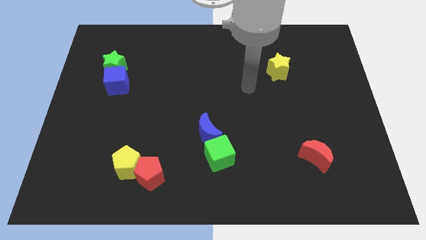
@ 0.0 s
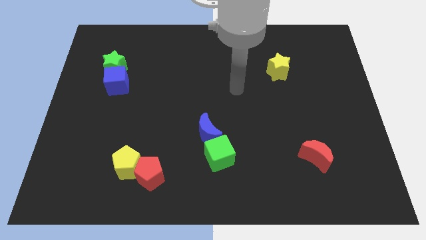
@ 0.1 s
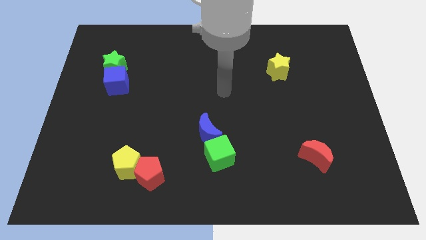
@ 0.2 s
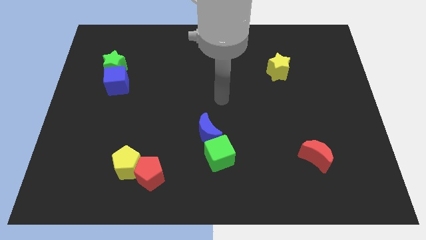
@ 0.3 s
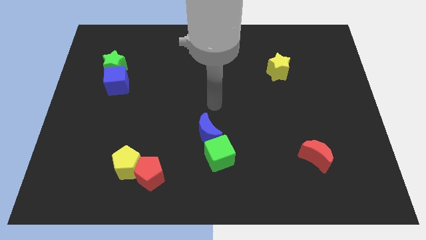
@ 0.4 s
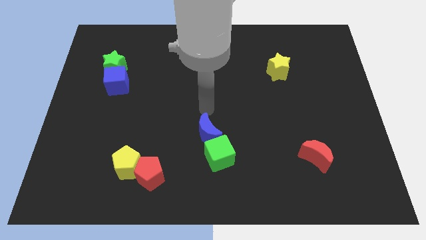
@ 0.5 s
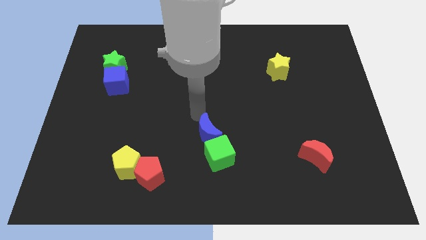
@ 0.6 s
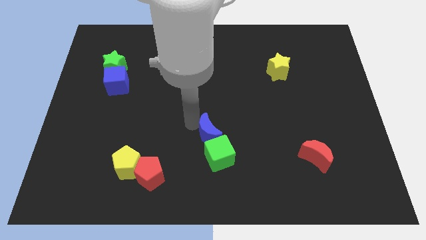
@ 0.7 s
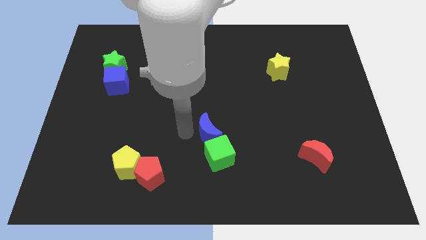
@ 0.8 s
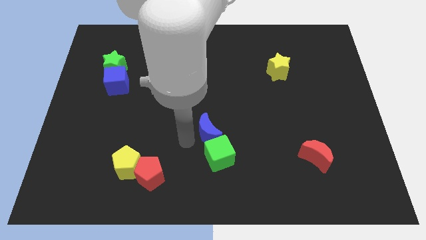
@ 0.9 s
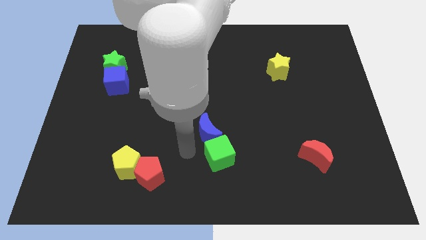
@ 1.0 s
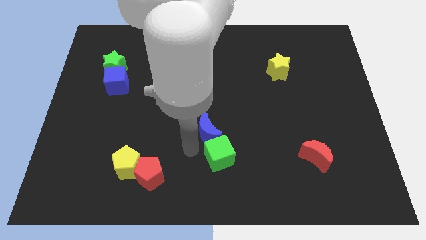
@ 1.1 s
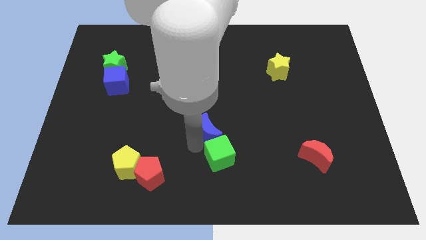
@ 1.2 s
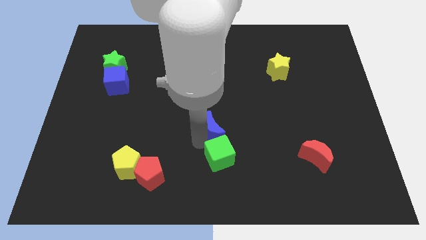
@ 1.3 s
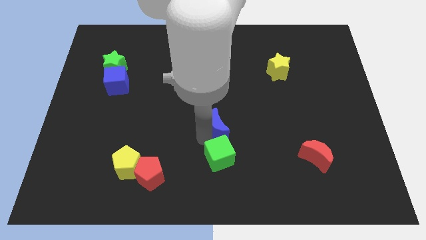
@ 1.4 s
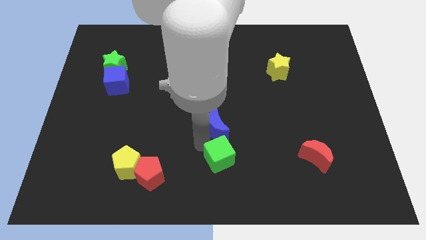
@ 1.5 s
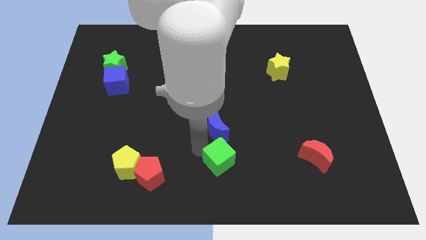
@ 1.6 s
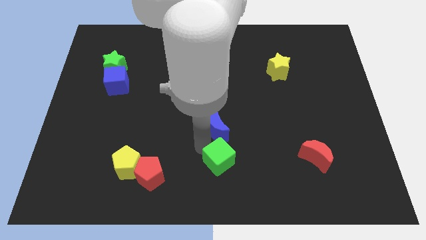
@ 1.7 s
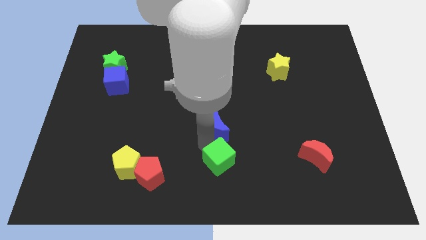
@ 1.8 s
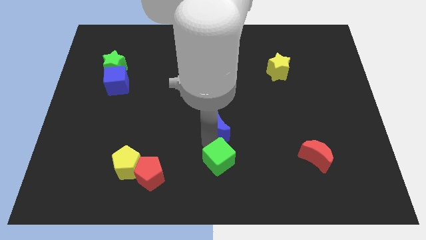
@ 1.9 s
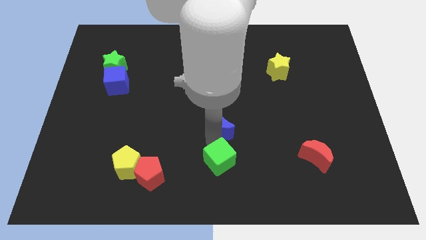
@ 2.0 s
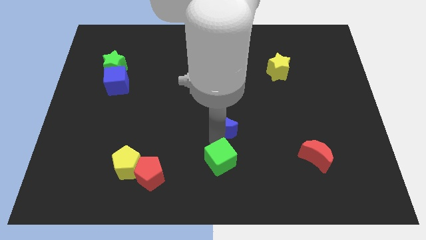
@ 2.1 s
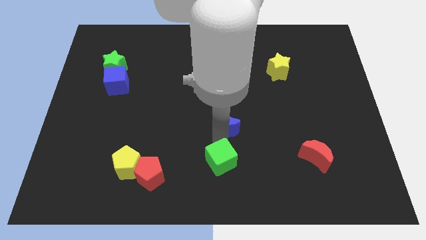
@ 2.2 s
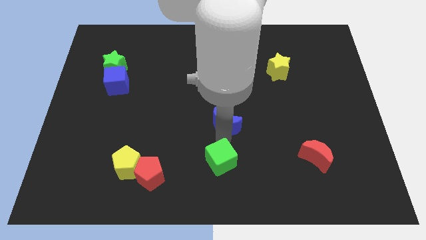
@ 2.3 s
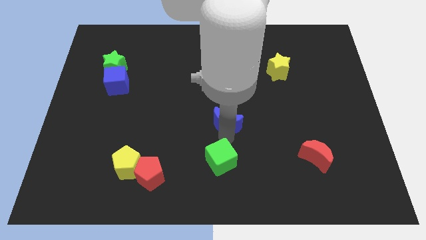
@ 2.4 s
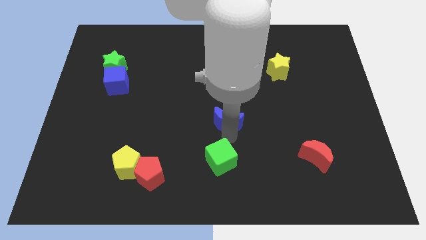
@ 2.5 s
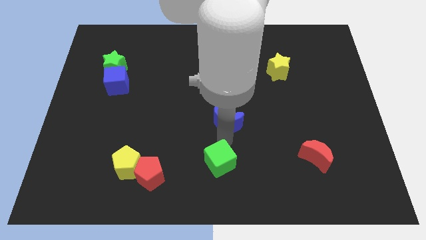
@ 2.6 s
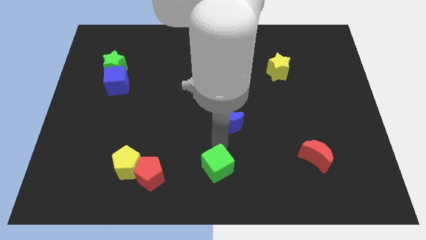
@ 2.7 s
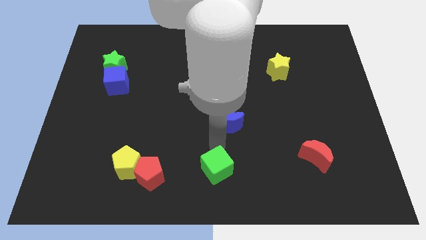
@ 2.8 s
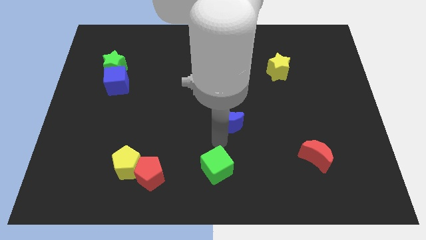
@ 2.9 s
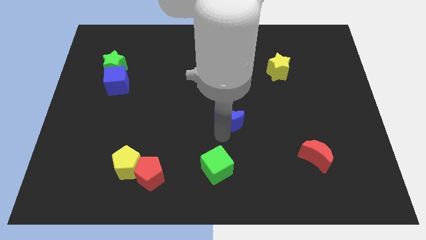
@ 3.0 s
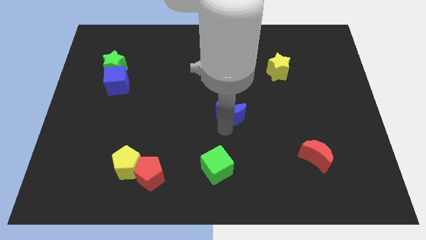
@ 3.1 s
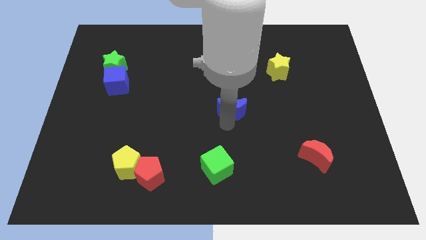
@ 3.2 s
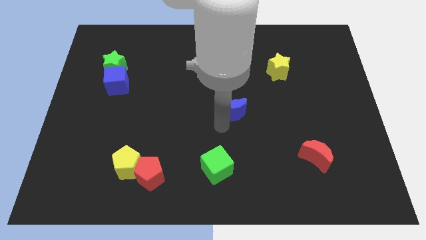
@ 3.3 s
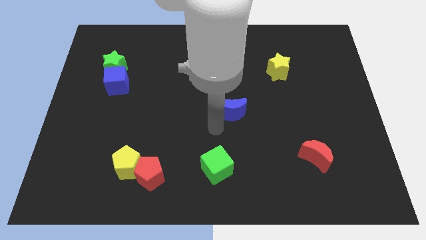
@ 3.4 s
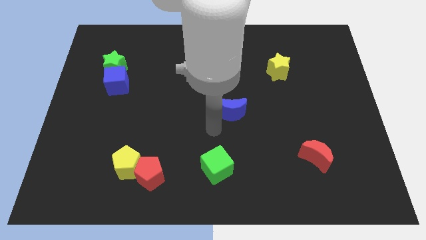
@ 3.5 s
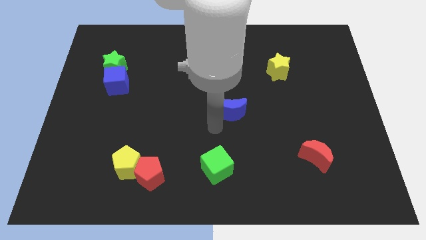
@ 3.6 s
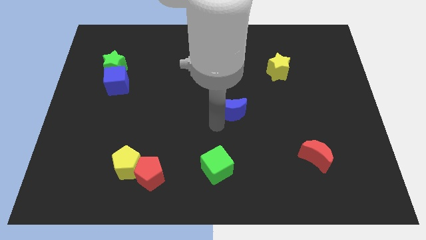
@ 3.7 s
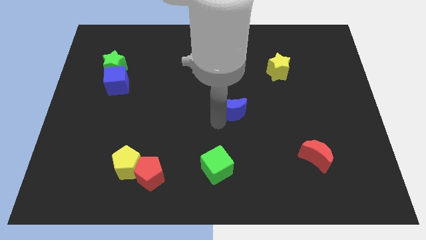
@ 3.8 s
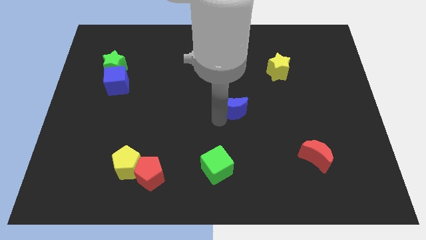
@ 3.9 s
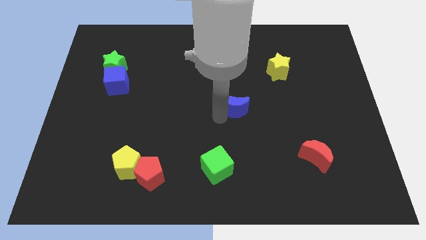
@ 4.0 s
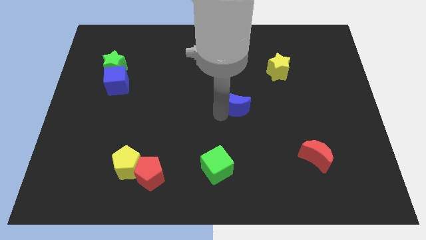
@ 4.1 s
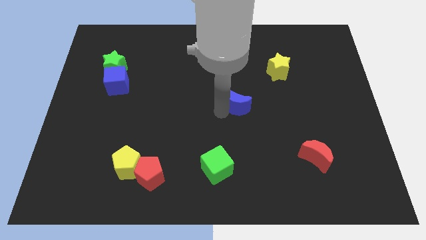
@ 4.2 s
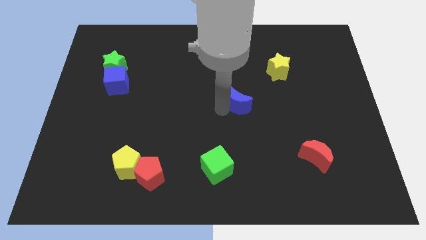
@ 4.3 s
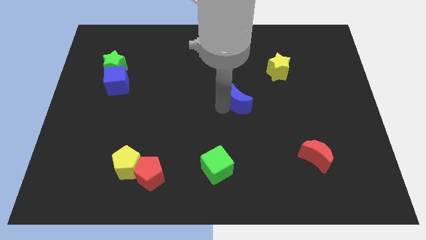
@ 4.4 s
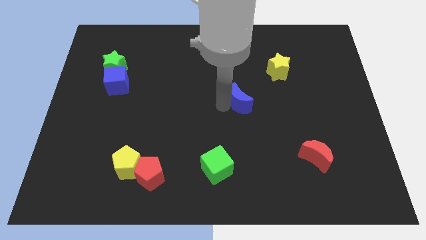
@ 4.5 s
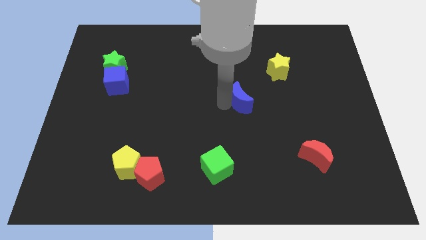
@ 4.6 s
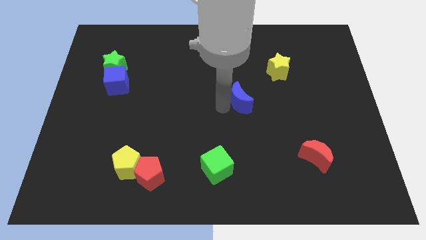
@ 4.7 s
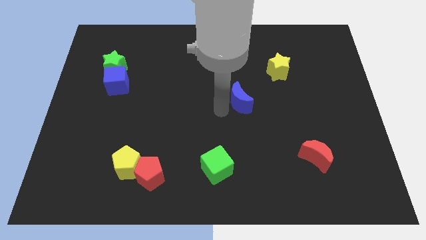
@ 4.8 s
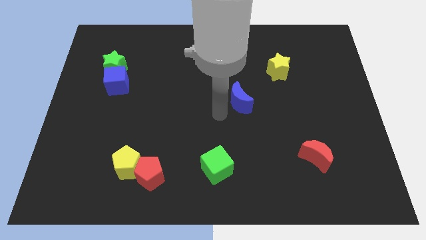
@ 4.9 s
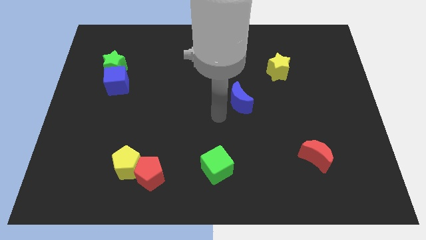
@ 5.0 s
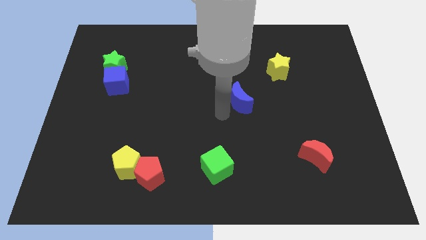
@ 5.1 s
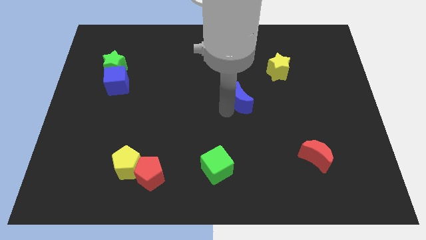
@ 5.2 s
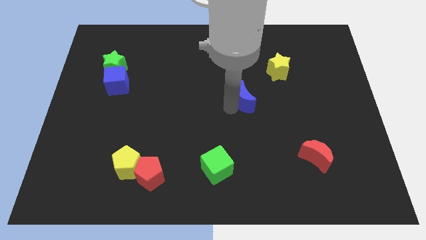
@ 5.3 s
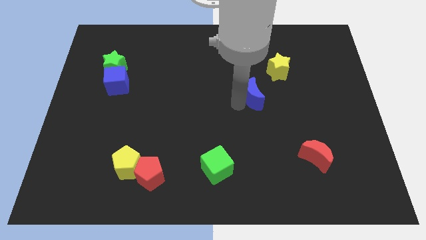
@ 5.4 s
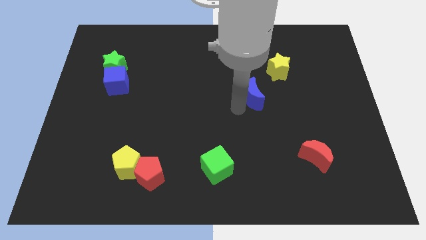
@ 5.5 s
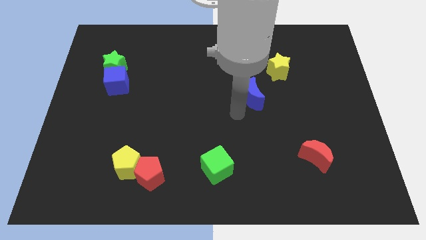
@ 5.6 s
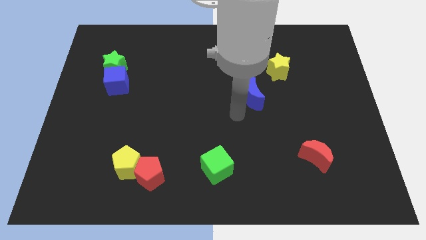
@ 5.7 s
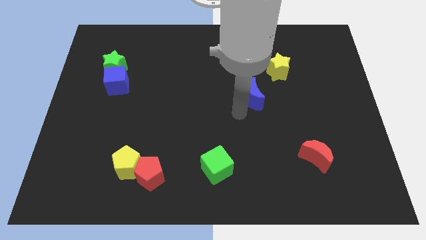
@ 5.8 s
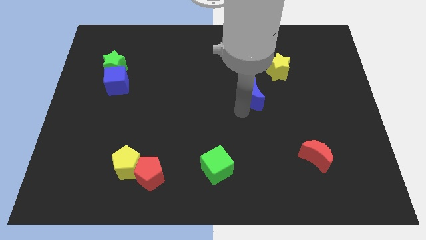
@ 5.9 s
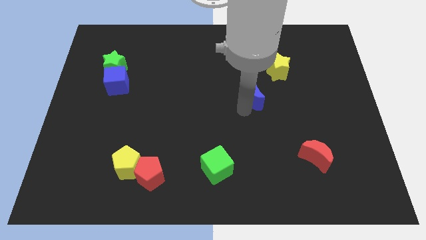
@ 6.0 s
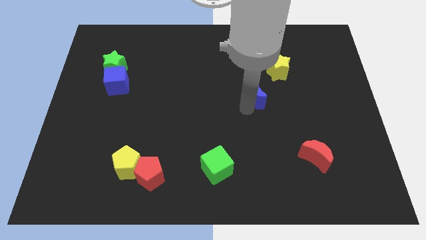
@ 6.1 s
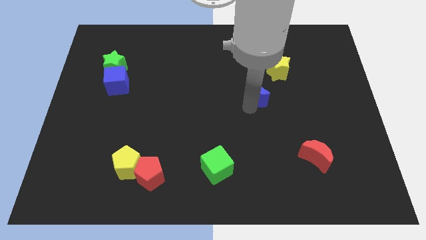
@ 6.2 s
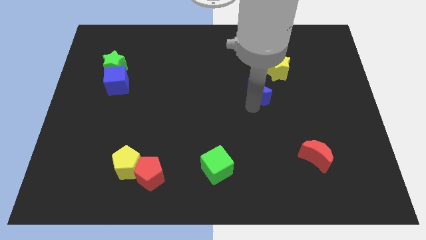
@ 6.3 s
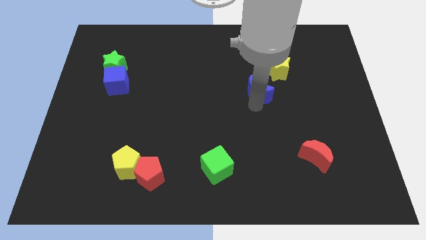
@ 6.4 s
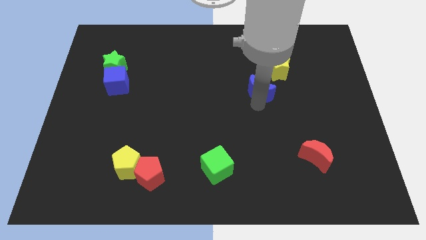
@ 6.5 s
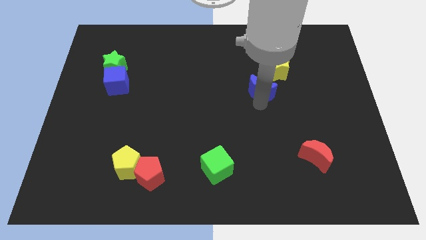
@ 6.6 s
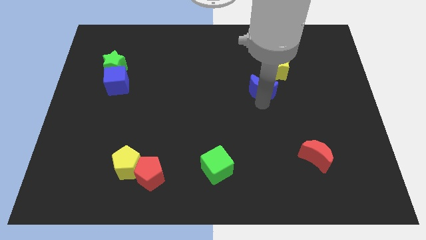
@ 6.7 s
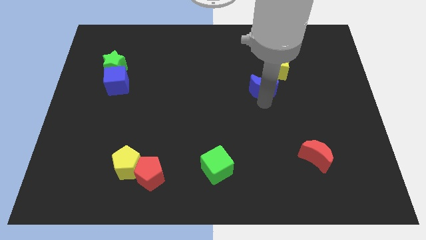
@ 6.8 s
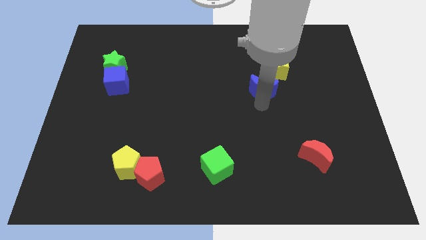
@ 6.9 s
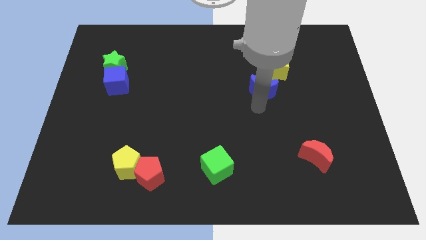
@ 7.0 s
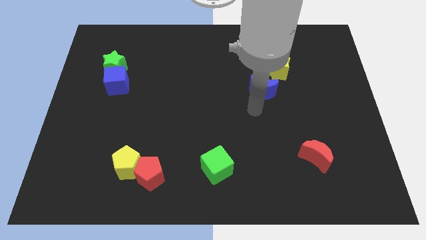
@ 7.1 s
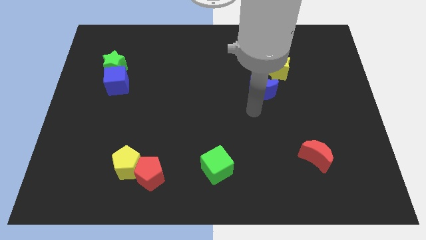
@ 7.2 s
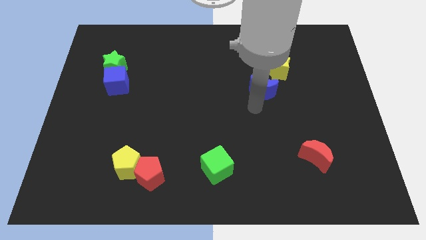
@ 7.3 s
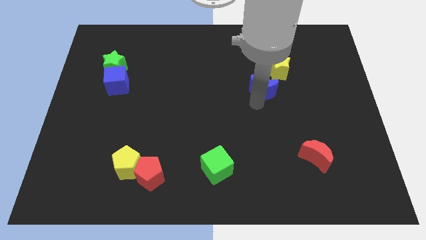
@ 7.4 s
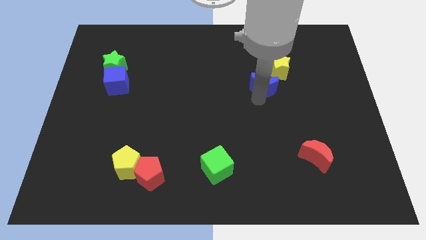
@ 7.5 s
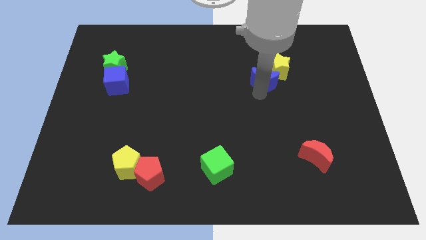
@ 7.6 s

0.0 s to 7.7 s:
push the blue moon next to the yellow star

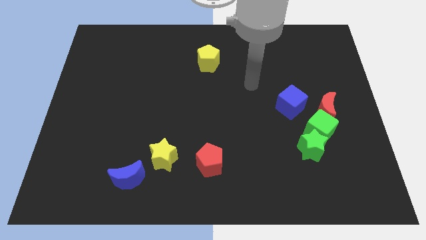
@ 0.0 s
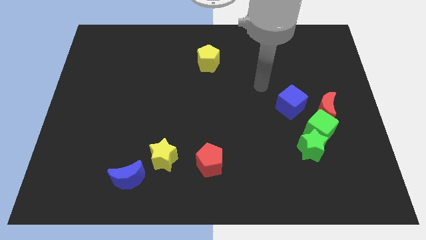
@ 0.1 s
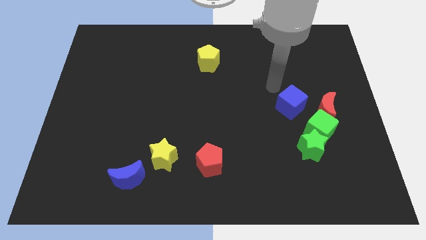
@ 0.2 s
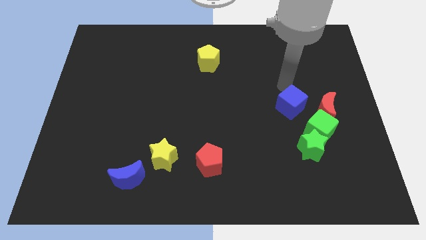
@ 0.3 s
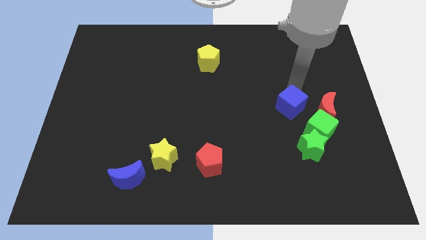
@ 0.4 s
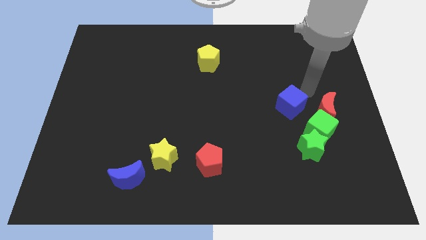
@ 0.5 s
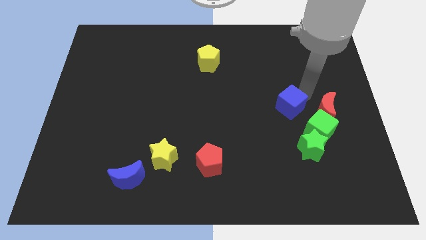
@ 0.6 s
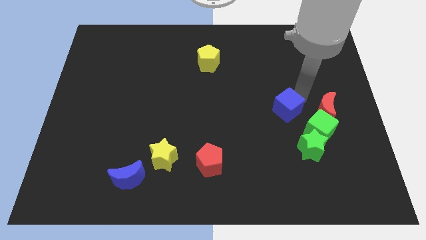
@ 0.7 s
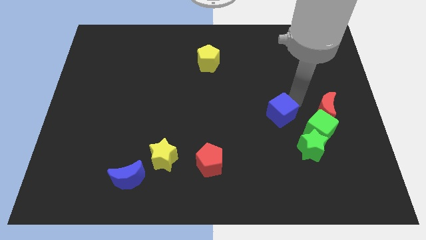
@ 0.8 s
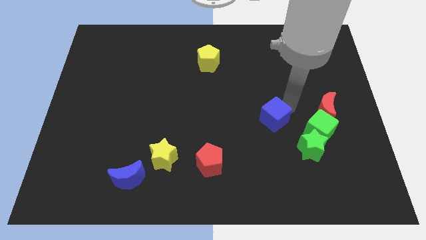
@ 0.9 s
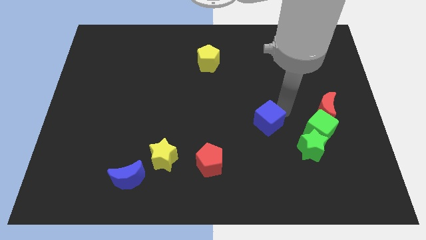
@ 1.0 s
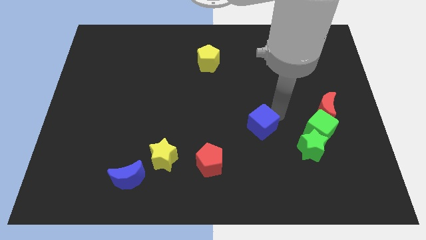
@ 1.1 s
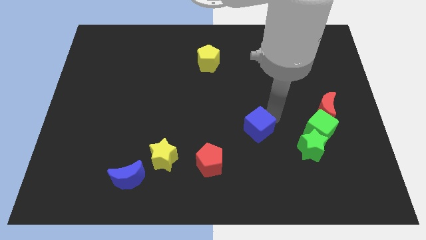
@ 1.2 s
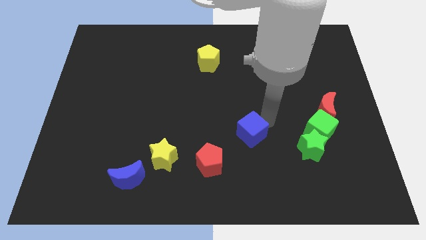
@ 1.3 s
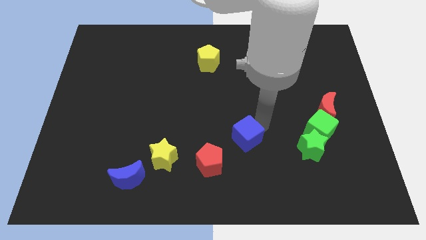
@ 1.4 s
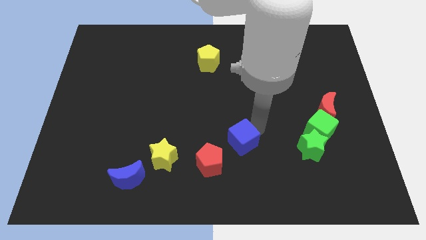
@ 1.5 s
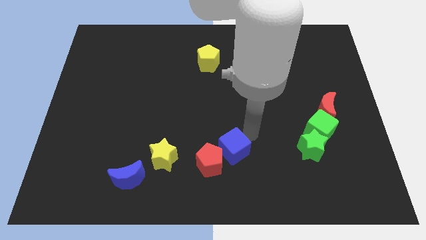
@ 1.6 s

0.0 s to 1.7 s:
push the blue cube to the red pentagon
